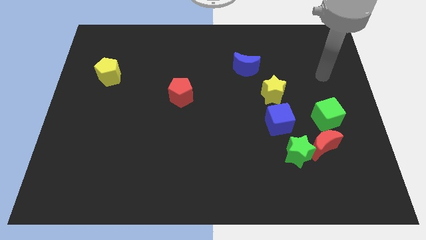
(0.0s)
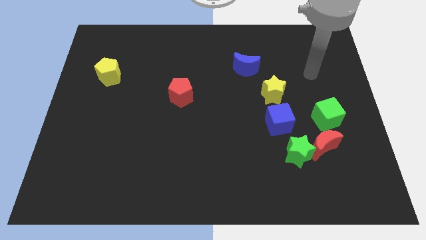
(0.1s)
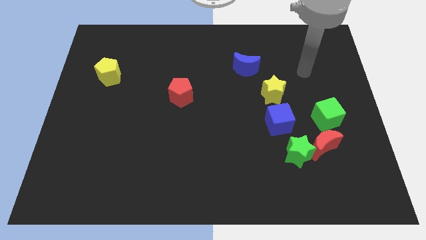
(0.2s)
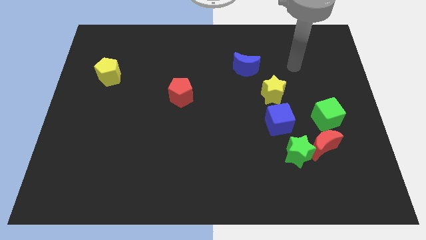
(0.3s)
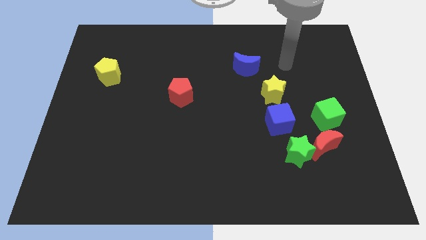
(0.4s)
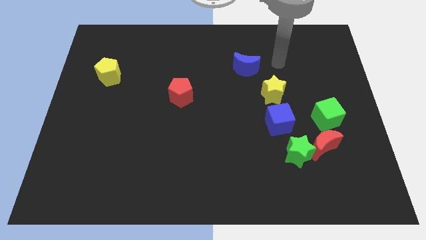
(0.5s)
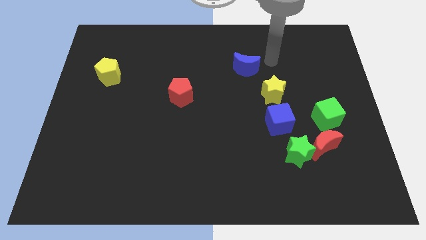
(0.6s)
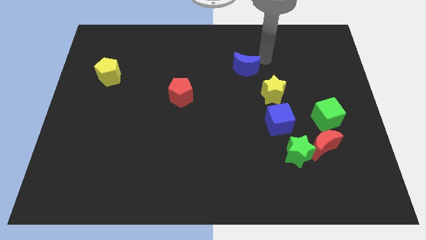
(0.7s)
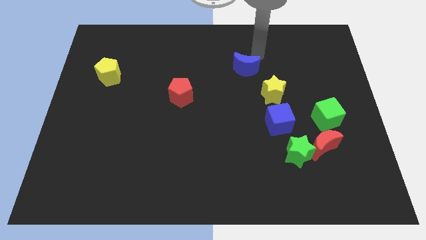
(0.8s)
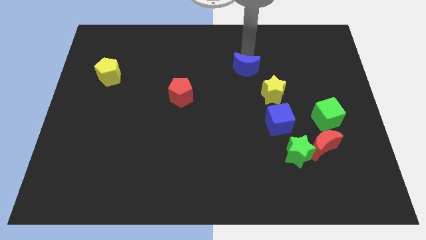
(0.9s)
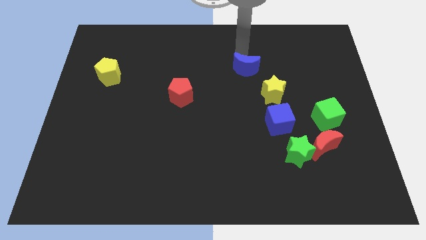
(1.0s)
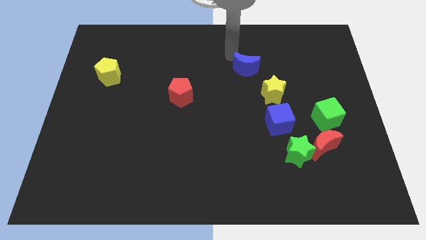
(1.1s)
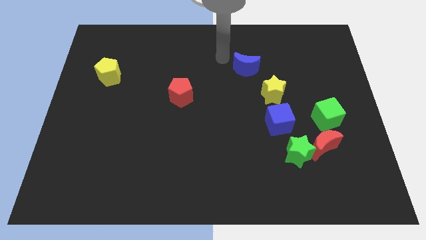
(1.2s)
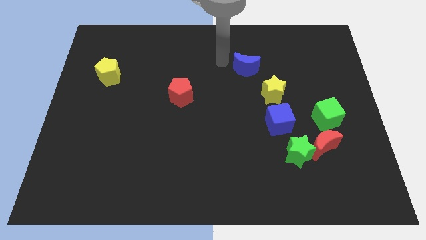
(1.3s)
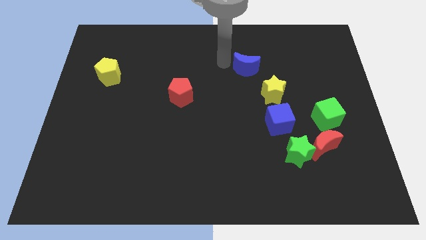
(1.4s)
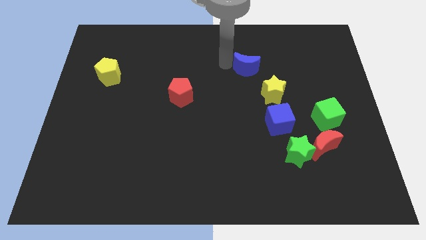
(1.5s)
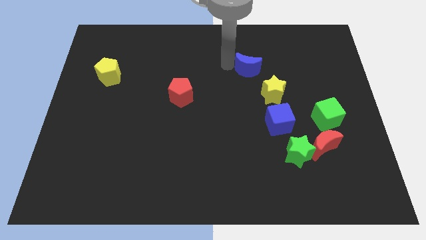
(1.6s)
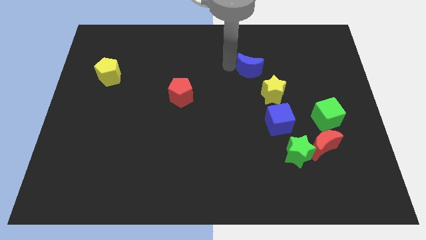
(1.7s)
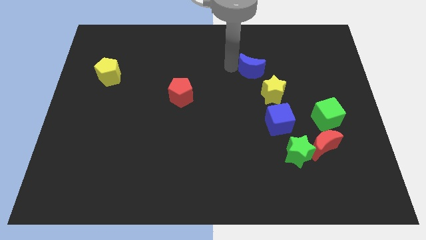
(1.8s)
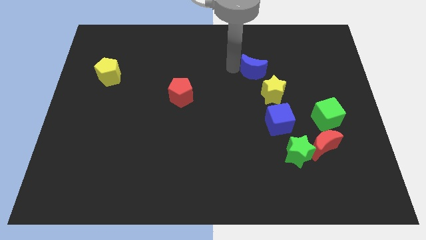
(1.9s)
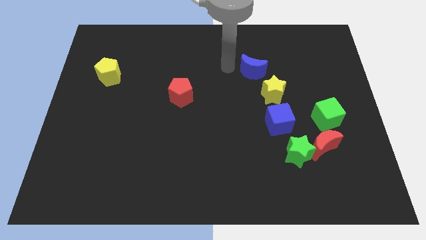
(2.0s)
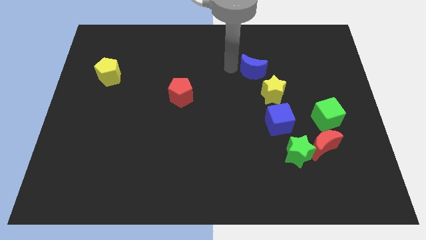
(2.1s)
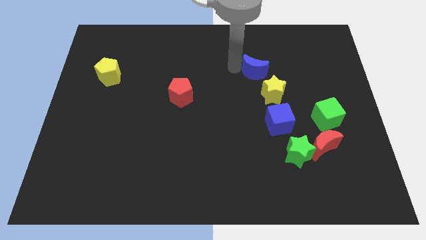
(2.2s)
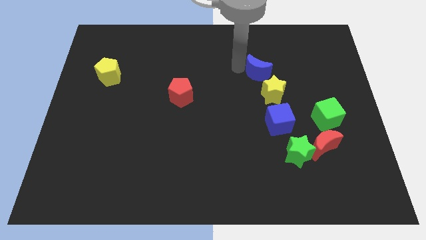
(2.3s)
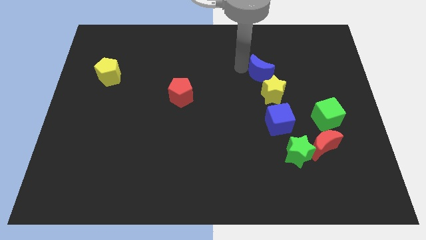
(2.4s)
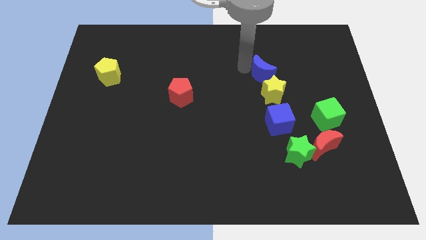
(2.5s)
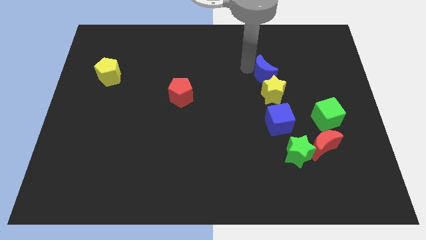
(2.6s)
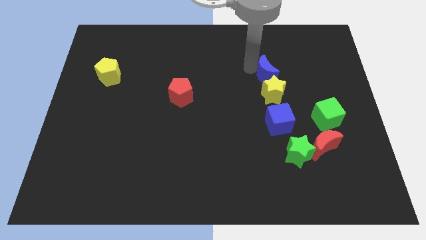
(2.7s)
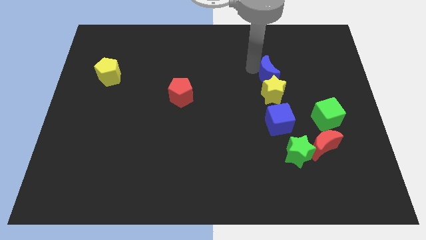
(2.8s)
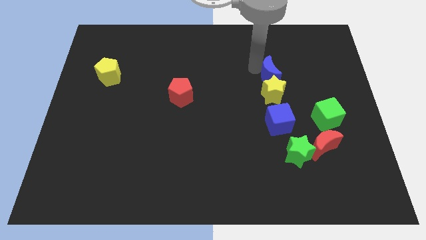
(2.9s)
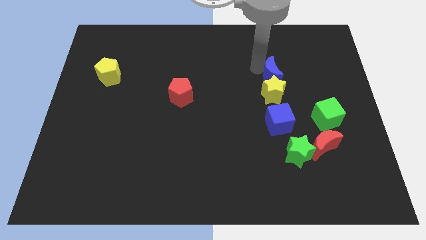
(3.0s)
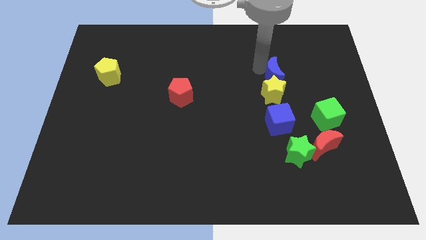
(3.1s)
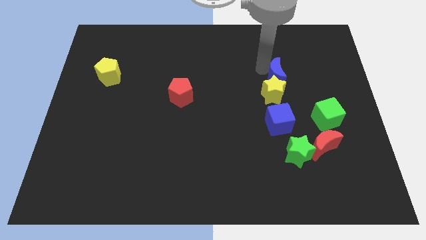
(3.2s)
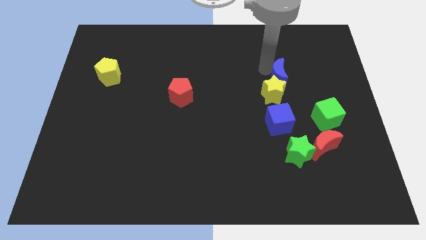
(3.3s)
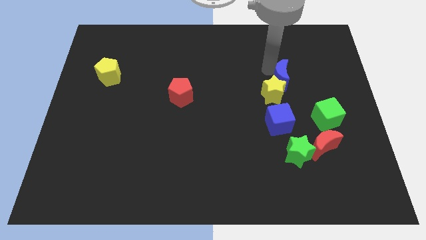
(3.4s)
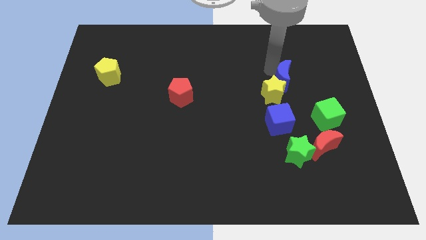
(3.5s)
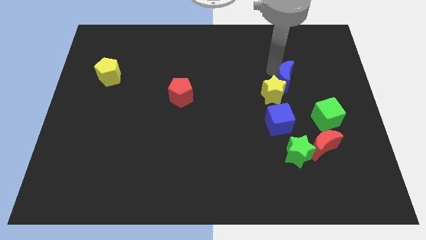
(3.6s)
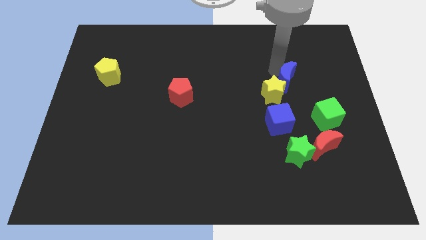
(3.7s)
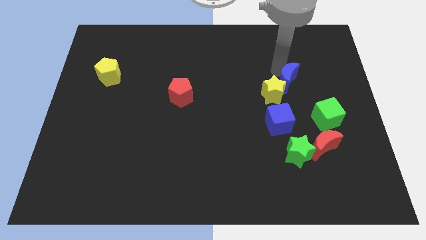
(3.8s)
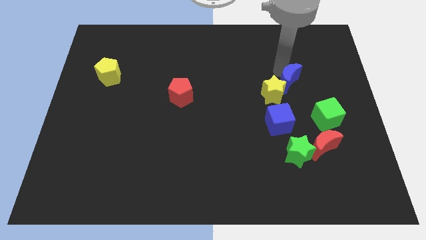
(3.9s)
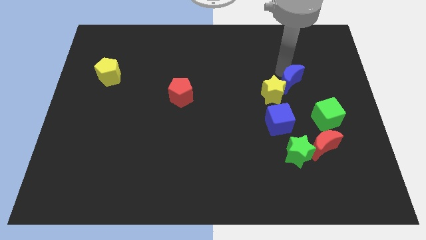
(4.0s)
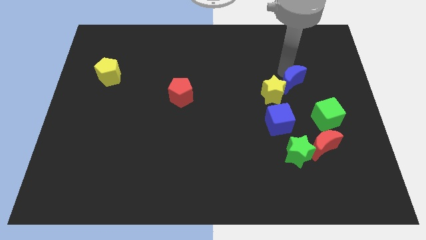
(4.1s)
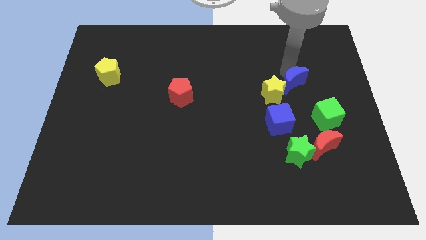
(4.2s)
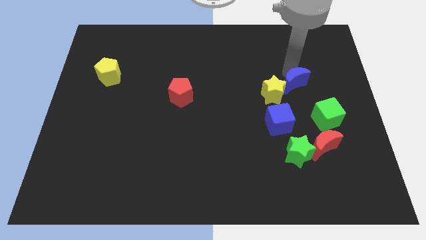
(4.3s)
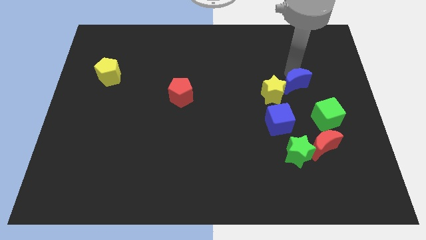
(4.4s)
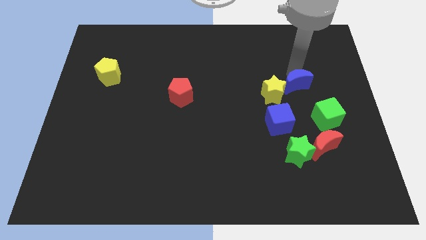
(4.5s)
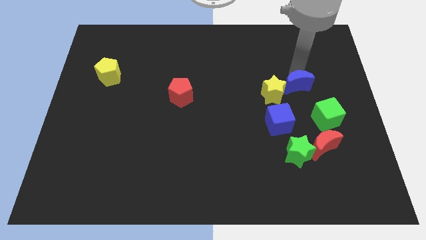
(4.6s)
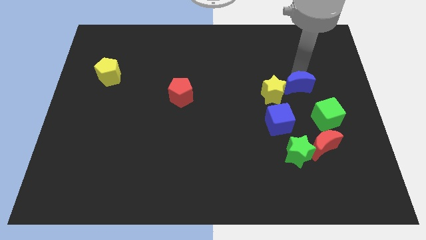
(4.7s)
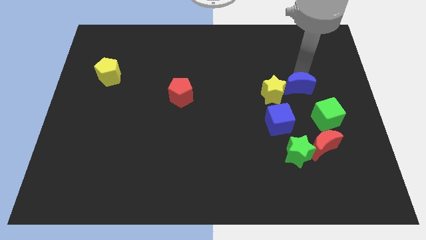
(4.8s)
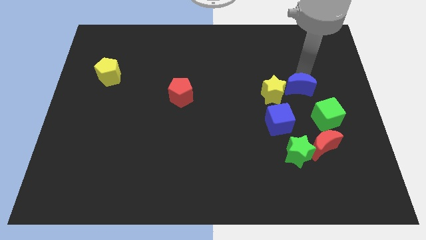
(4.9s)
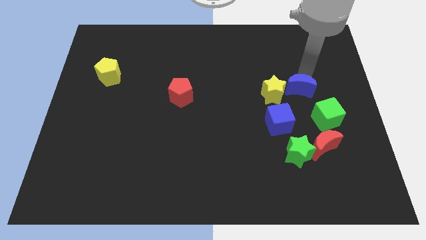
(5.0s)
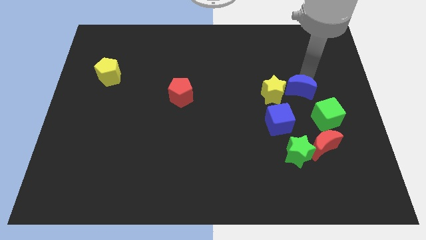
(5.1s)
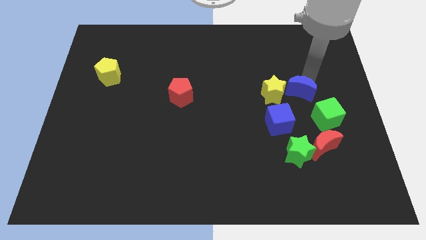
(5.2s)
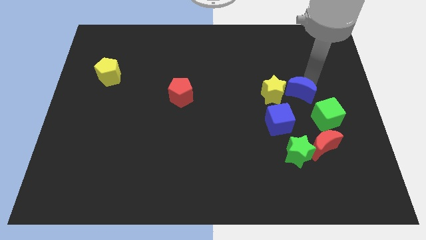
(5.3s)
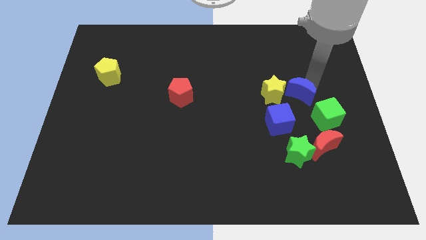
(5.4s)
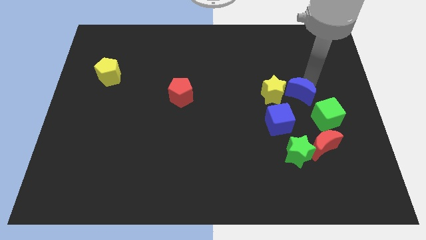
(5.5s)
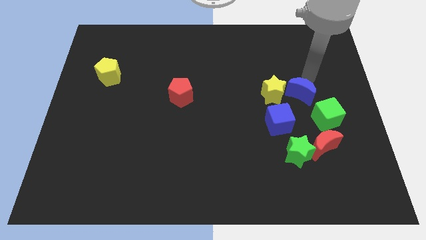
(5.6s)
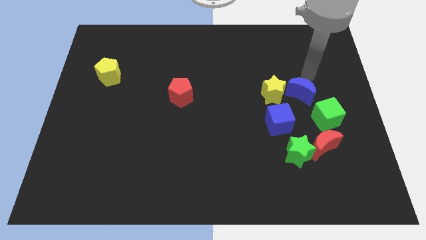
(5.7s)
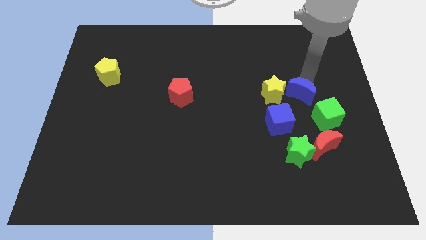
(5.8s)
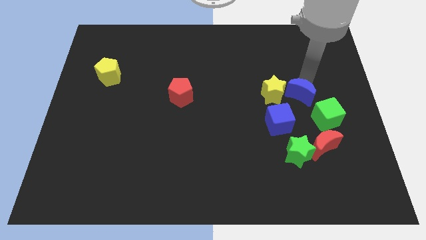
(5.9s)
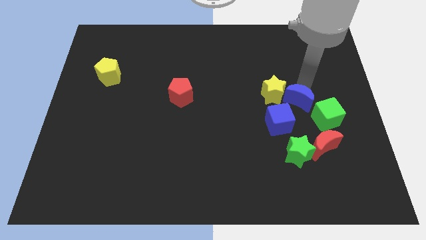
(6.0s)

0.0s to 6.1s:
push the blue moon above the green star

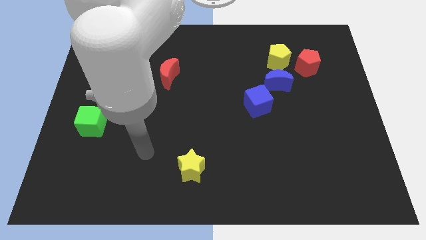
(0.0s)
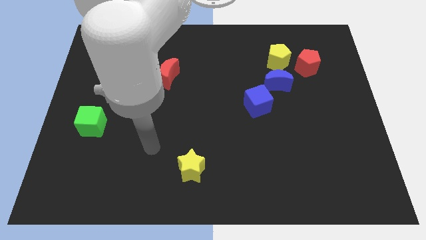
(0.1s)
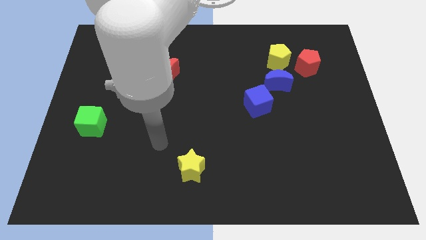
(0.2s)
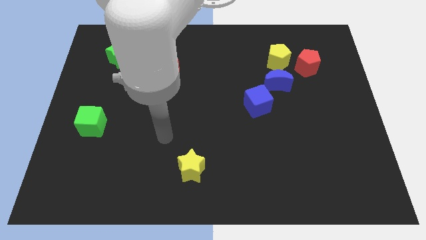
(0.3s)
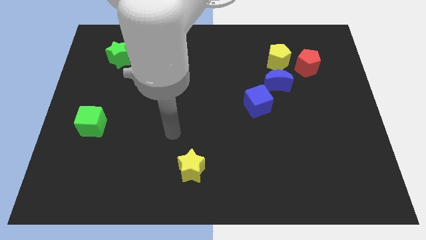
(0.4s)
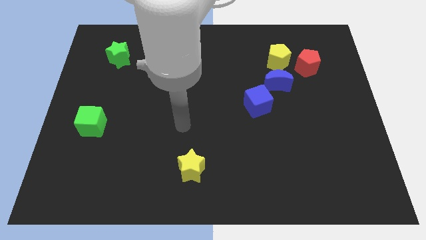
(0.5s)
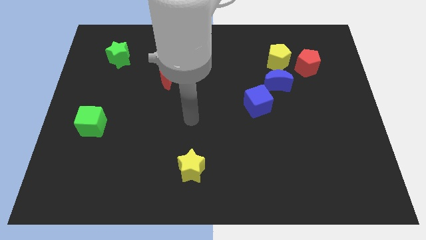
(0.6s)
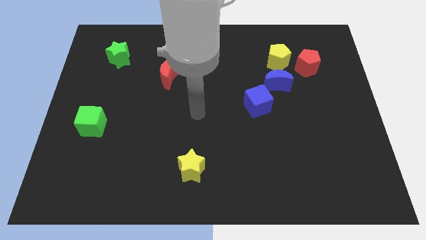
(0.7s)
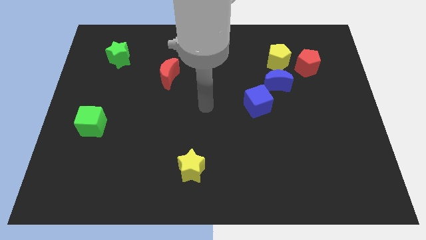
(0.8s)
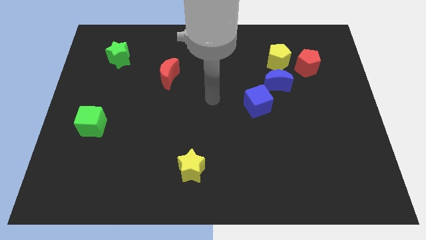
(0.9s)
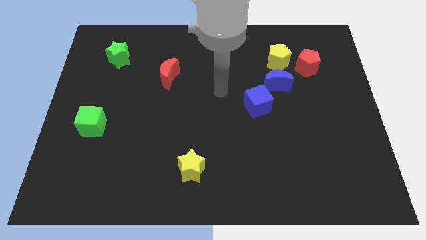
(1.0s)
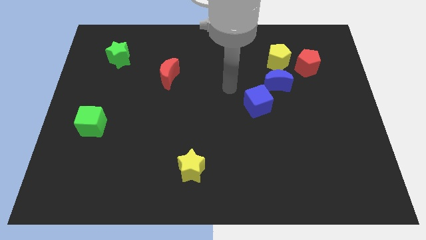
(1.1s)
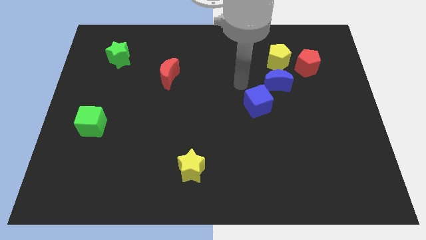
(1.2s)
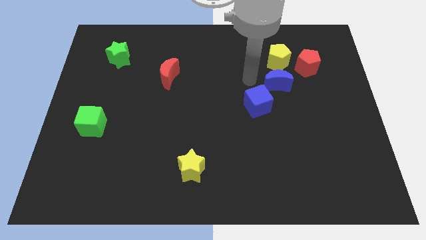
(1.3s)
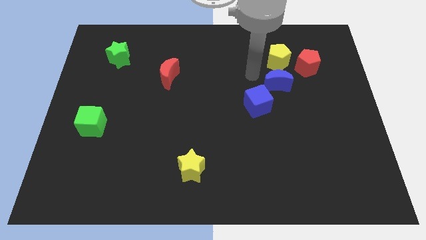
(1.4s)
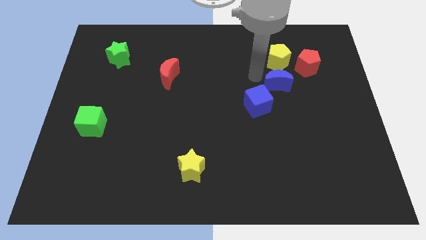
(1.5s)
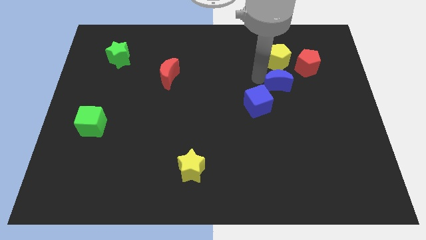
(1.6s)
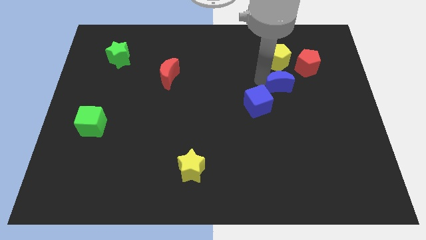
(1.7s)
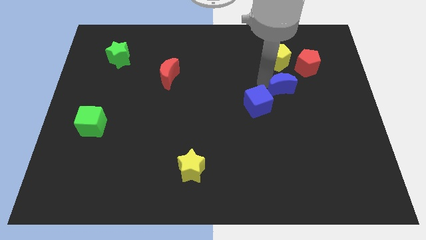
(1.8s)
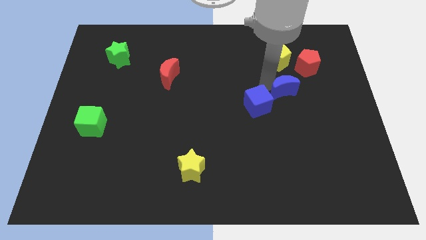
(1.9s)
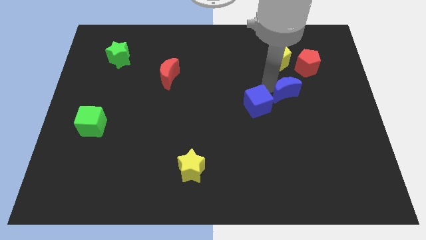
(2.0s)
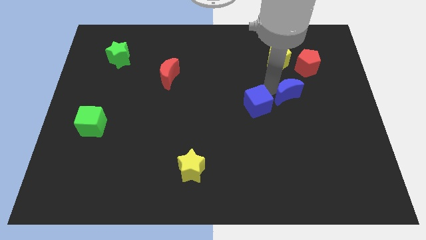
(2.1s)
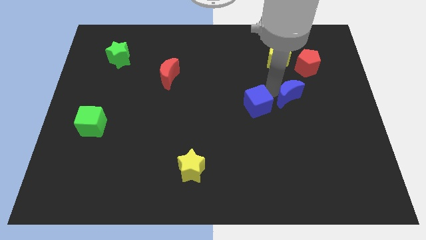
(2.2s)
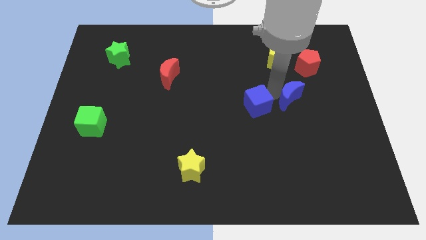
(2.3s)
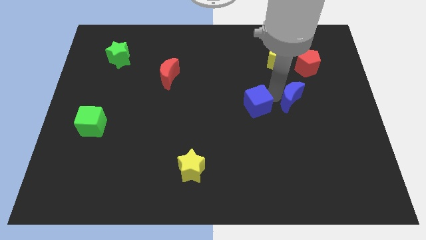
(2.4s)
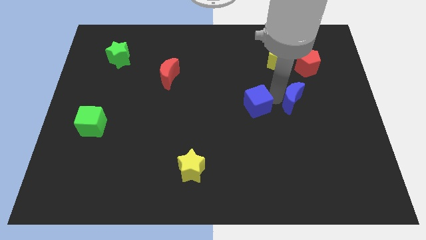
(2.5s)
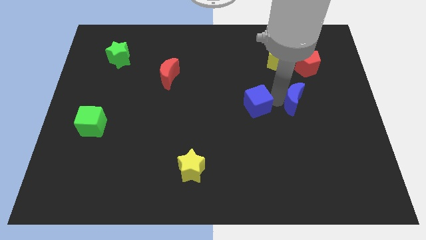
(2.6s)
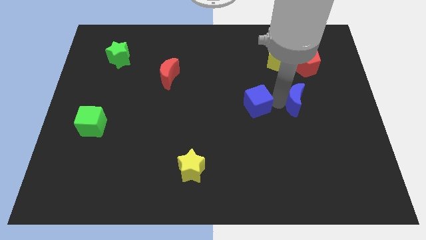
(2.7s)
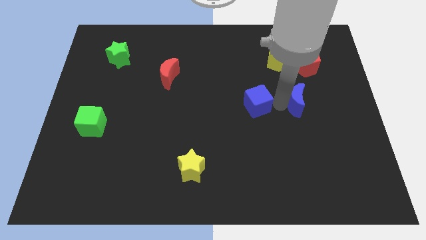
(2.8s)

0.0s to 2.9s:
slide the blue moon to the bottom side of the red pentagon
